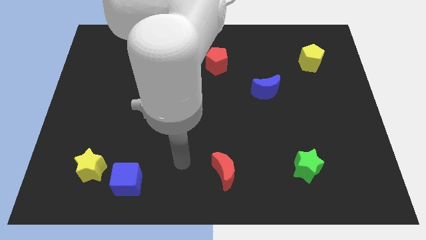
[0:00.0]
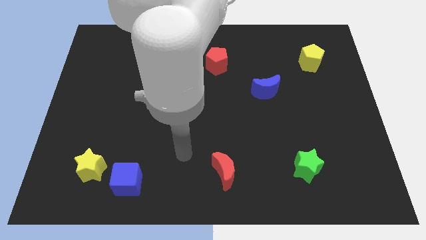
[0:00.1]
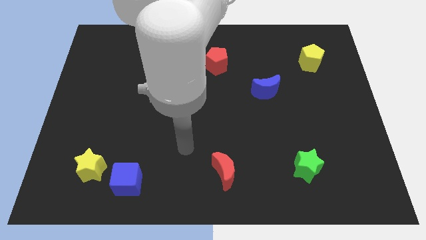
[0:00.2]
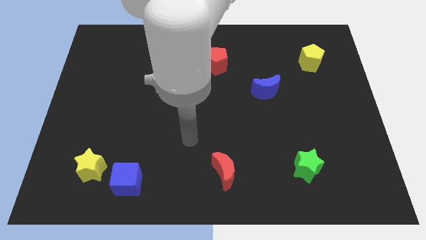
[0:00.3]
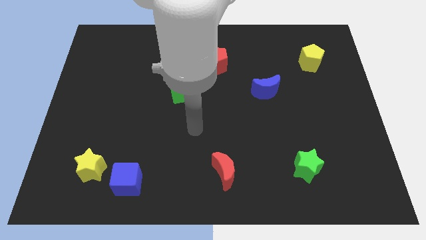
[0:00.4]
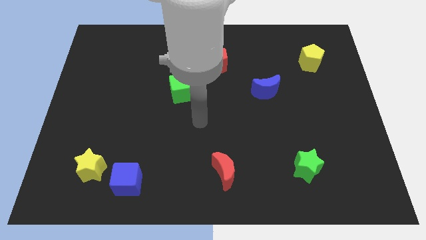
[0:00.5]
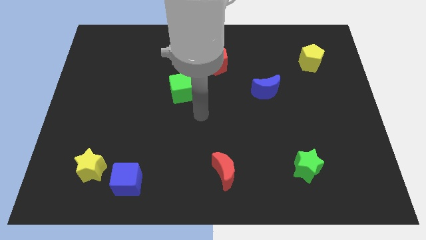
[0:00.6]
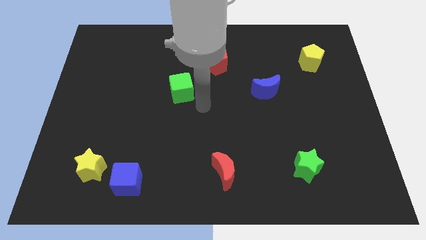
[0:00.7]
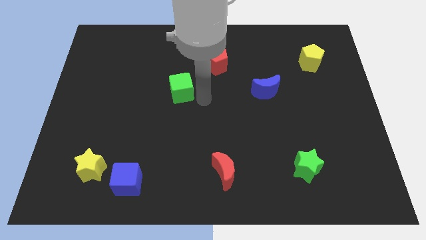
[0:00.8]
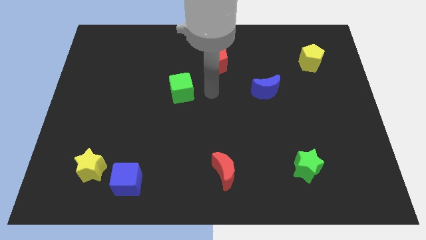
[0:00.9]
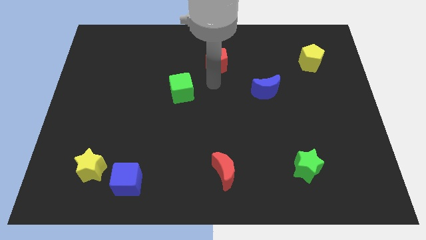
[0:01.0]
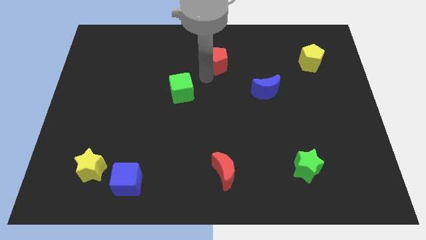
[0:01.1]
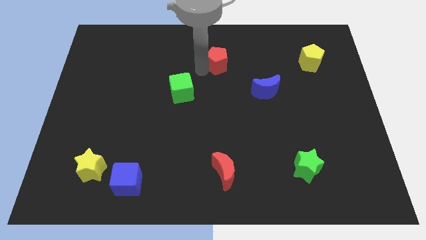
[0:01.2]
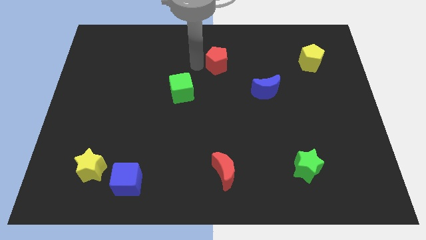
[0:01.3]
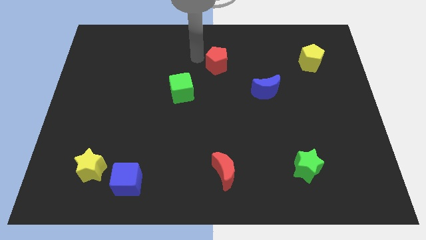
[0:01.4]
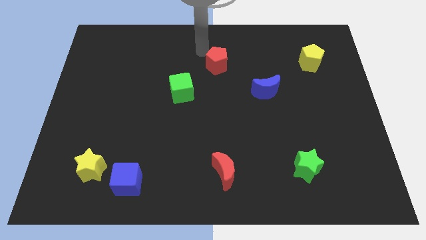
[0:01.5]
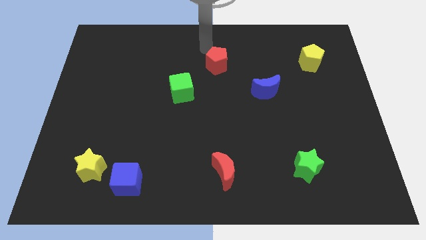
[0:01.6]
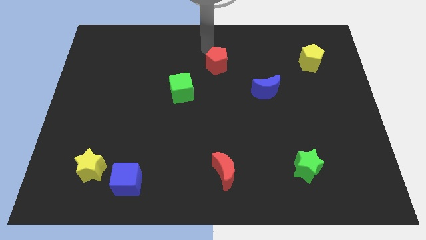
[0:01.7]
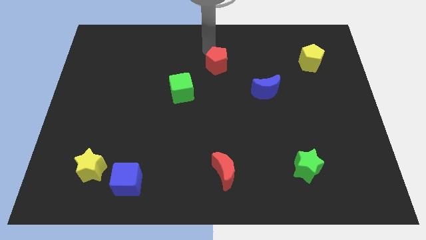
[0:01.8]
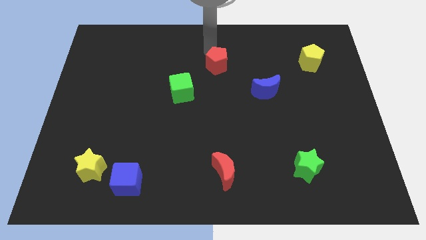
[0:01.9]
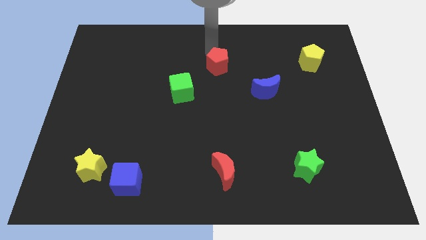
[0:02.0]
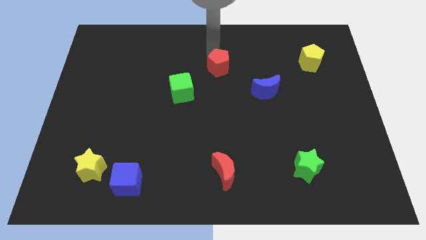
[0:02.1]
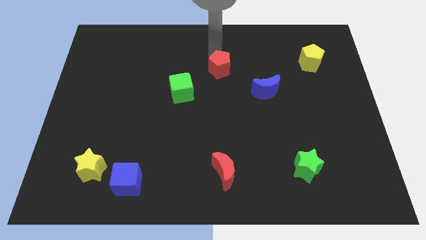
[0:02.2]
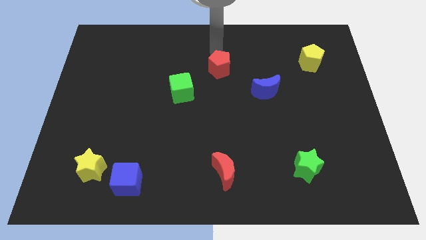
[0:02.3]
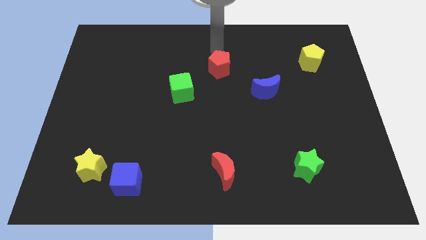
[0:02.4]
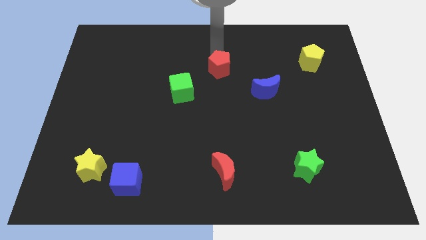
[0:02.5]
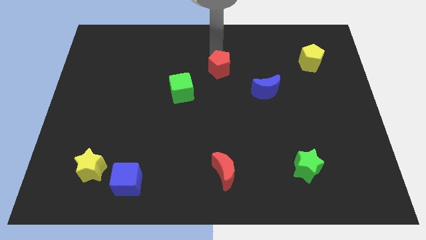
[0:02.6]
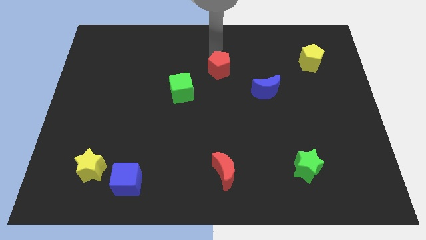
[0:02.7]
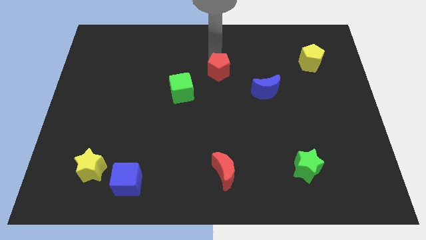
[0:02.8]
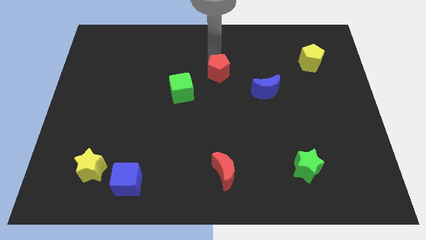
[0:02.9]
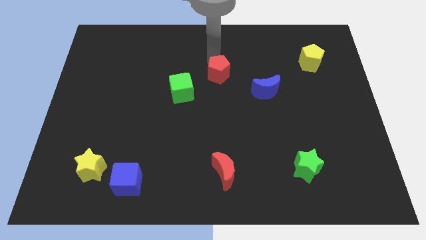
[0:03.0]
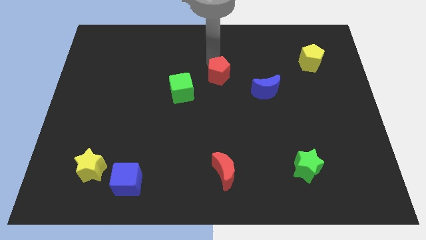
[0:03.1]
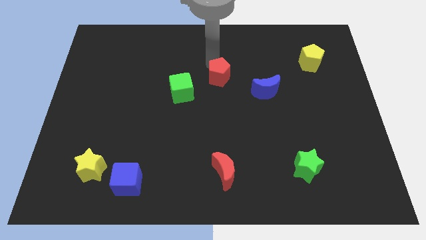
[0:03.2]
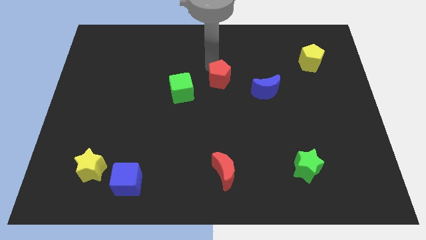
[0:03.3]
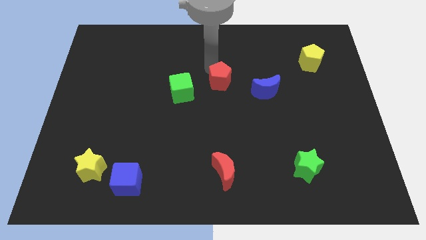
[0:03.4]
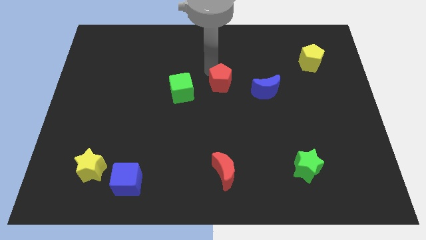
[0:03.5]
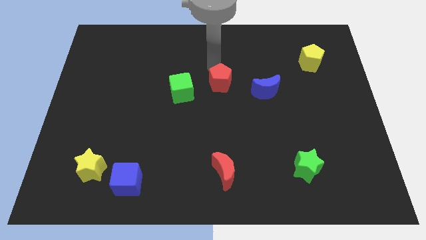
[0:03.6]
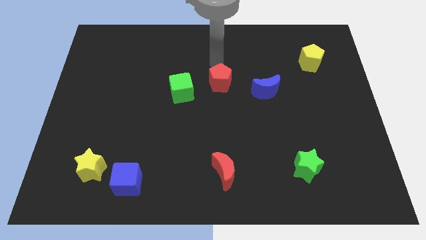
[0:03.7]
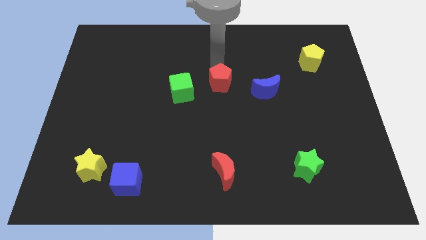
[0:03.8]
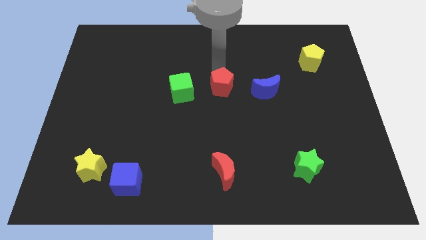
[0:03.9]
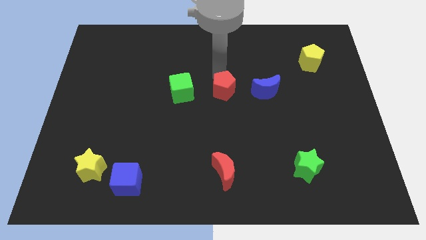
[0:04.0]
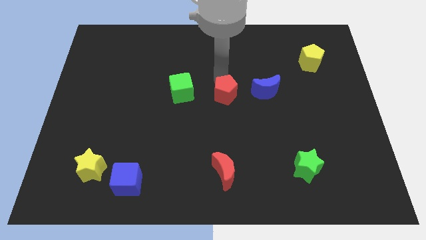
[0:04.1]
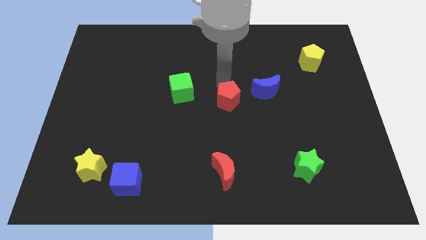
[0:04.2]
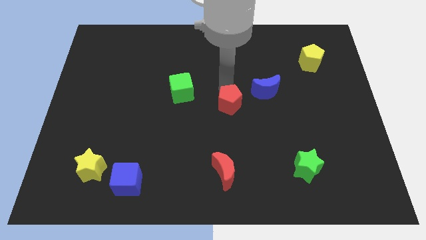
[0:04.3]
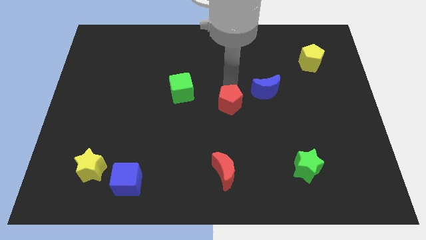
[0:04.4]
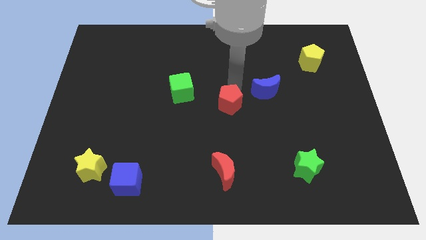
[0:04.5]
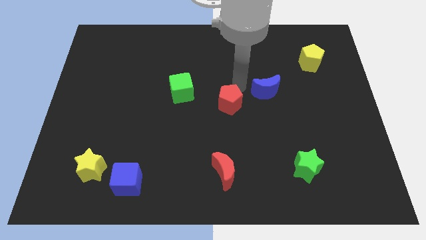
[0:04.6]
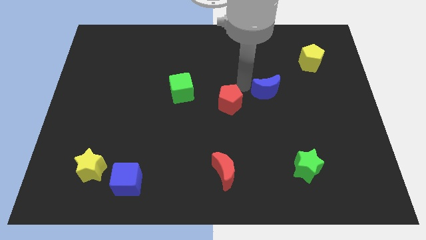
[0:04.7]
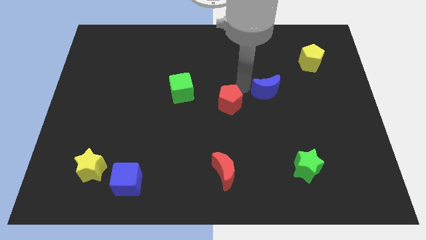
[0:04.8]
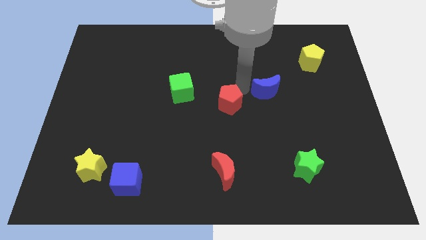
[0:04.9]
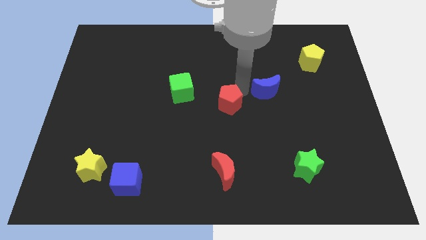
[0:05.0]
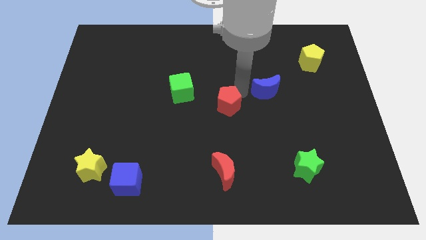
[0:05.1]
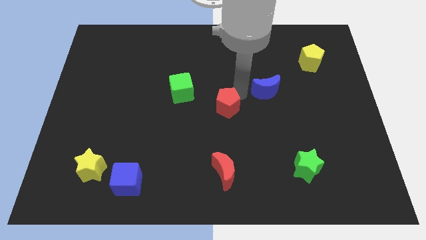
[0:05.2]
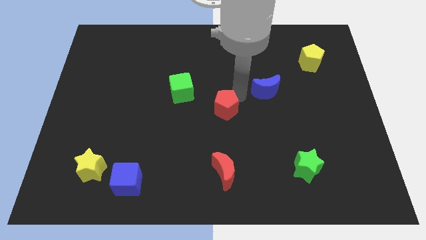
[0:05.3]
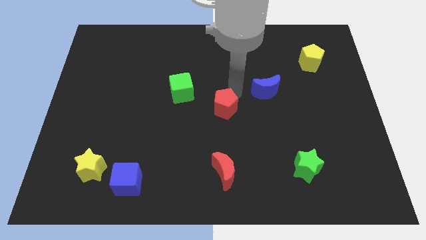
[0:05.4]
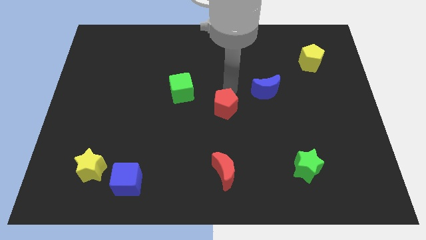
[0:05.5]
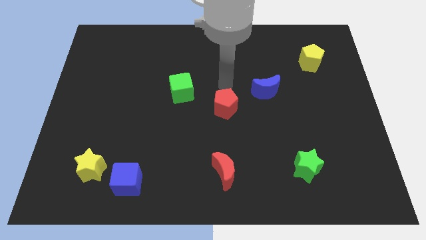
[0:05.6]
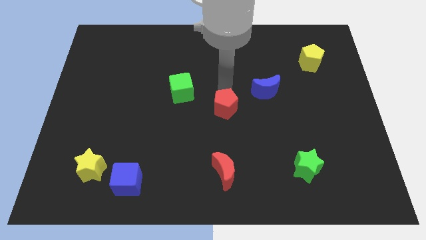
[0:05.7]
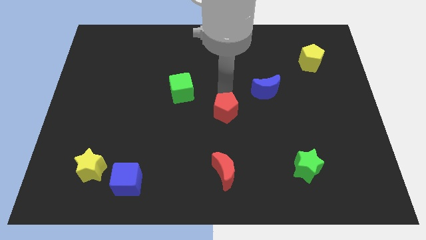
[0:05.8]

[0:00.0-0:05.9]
put the red pentagon above the red moon
